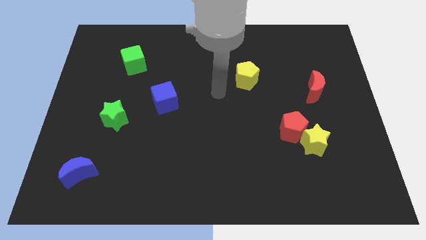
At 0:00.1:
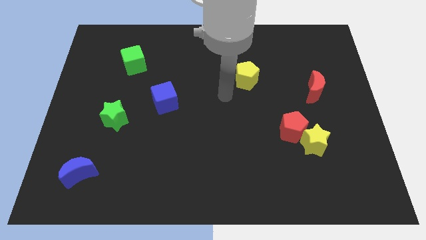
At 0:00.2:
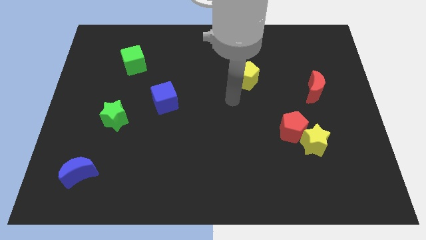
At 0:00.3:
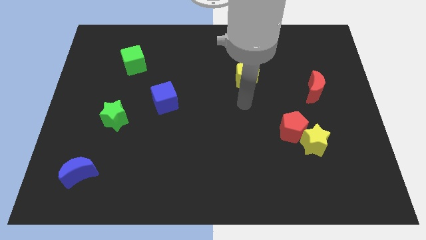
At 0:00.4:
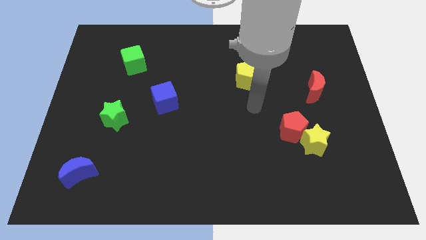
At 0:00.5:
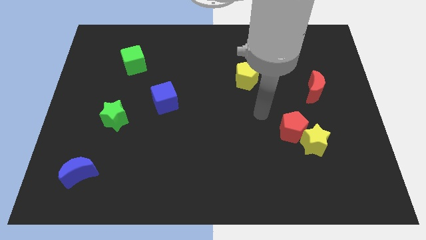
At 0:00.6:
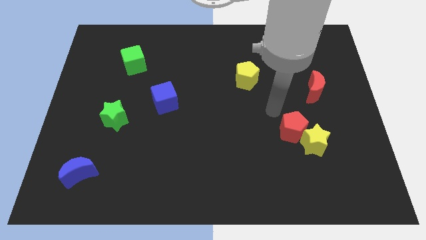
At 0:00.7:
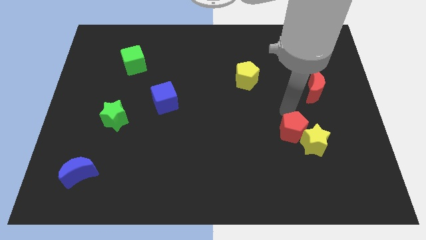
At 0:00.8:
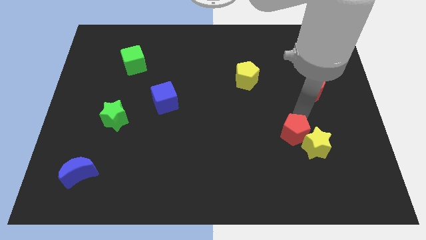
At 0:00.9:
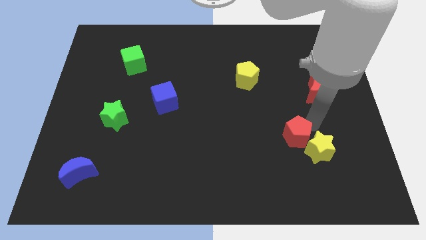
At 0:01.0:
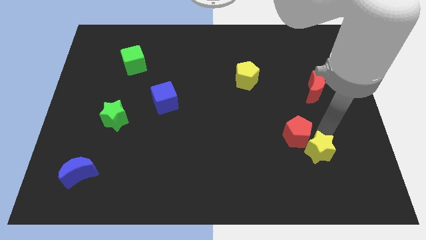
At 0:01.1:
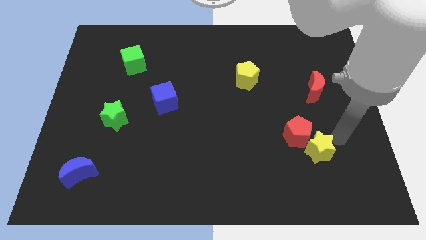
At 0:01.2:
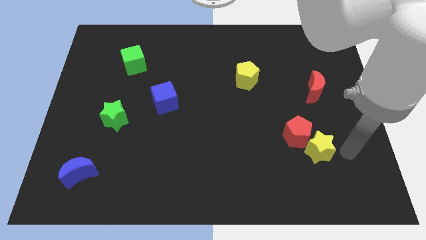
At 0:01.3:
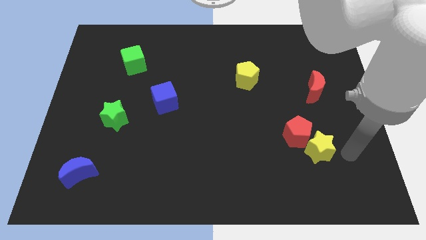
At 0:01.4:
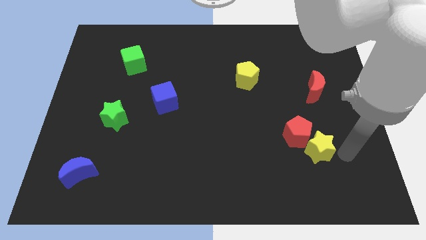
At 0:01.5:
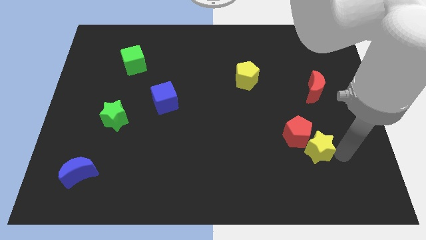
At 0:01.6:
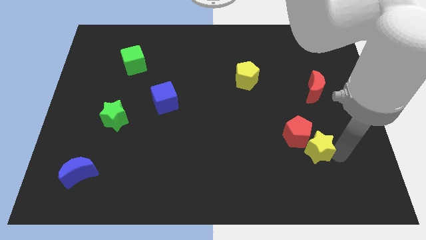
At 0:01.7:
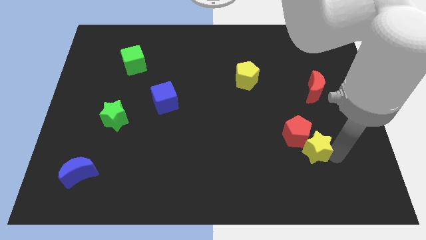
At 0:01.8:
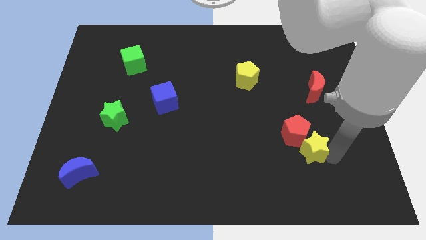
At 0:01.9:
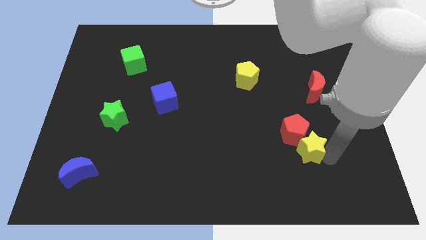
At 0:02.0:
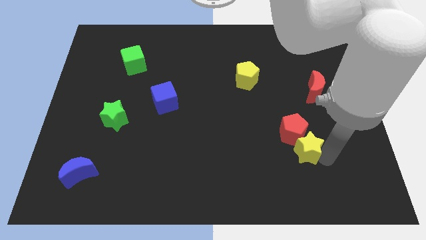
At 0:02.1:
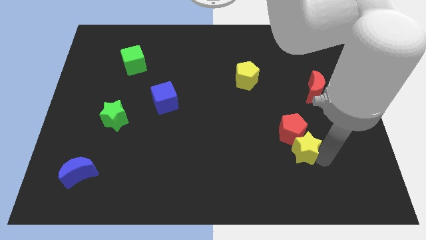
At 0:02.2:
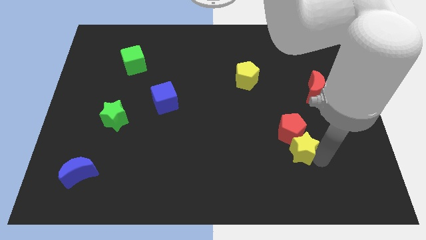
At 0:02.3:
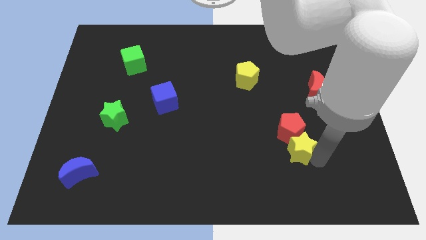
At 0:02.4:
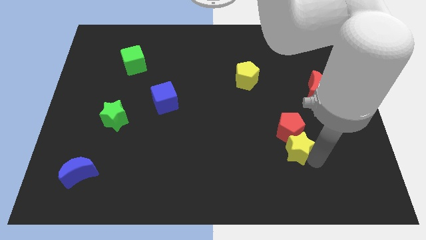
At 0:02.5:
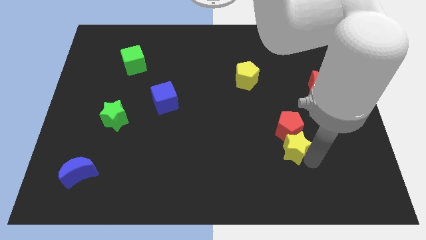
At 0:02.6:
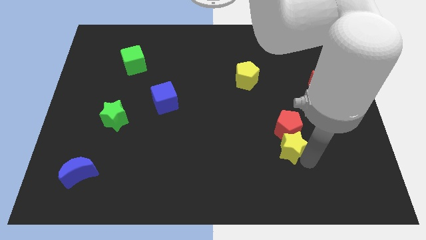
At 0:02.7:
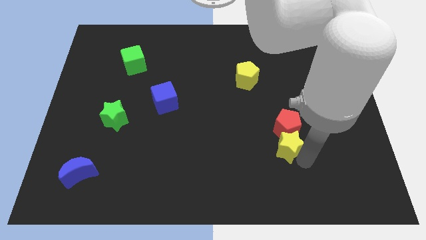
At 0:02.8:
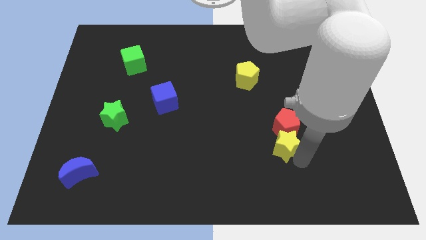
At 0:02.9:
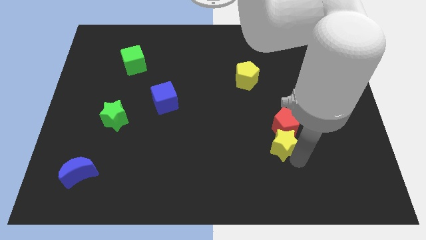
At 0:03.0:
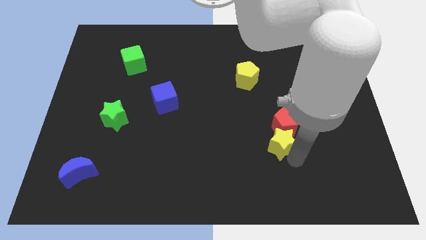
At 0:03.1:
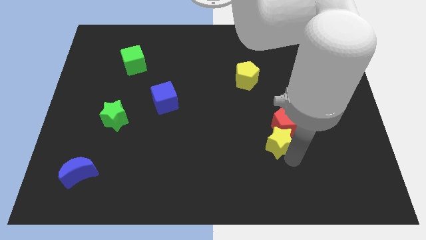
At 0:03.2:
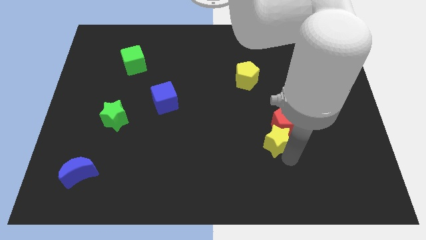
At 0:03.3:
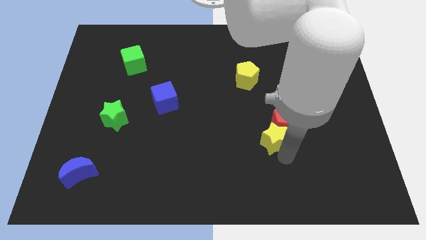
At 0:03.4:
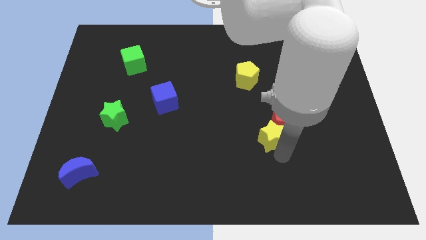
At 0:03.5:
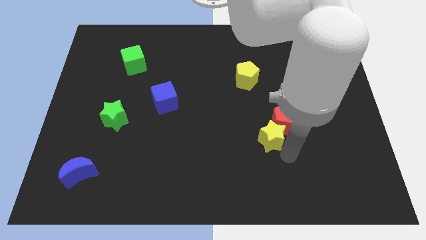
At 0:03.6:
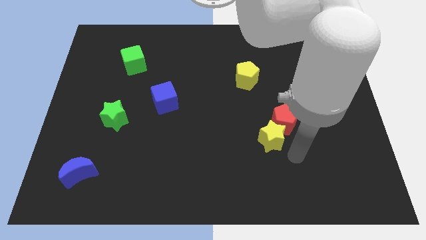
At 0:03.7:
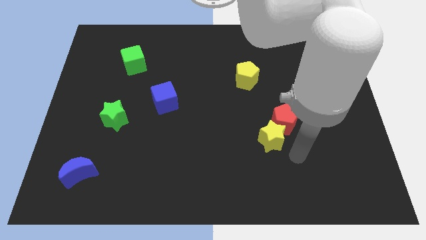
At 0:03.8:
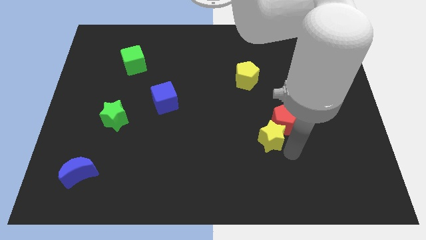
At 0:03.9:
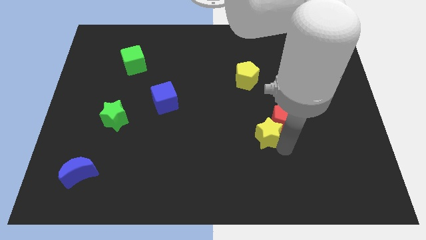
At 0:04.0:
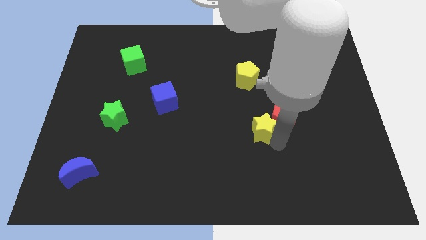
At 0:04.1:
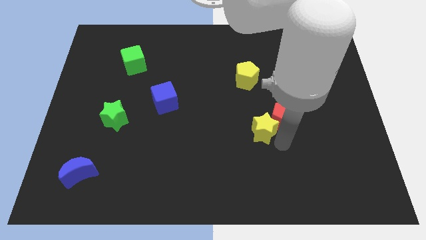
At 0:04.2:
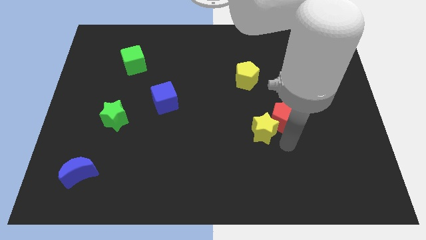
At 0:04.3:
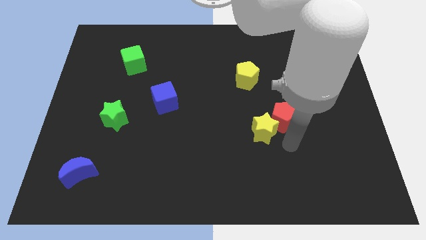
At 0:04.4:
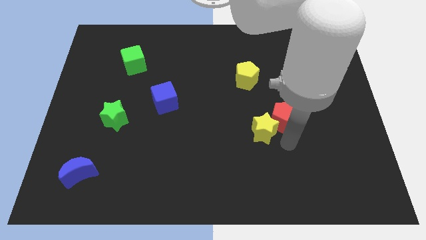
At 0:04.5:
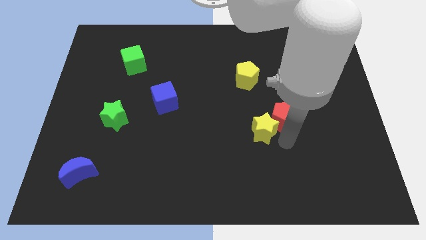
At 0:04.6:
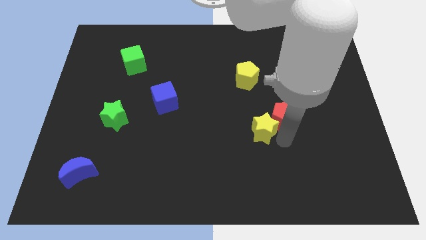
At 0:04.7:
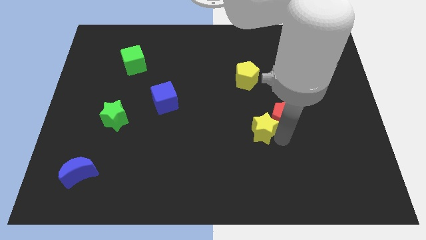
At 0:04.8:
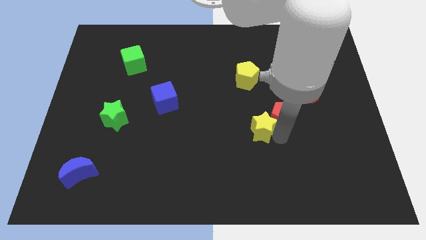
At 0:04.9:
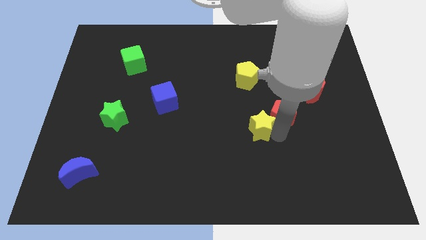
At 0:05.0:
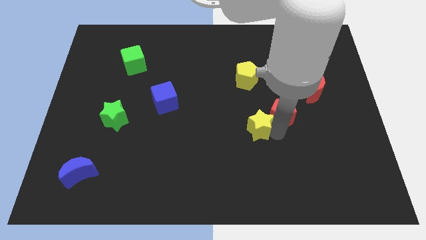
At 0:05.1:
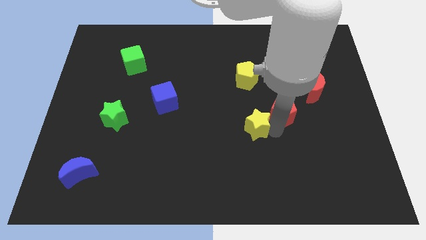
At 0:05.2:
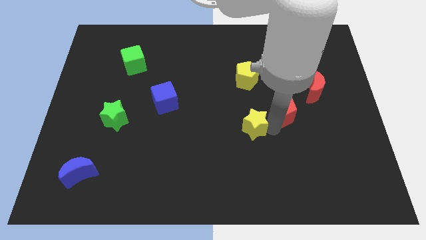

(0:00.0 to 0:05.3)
move the yellow star to the middle

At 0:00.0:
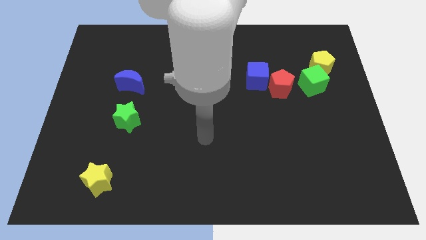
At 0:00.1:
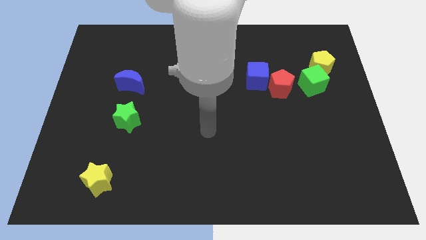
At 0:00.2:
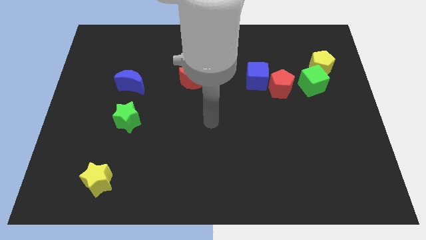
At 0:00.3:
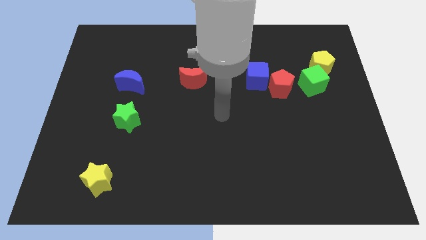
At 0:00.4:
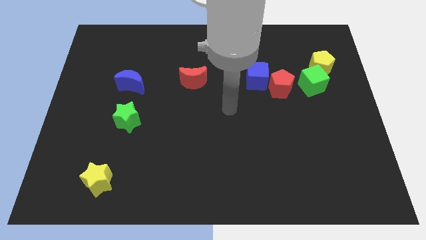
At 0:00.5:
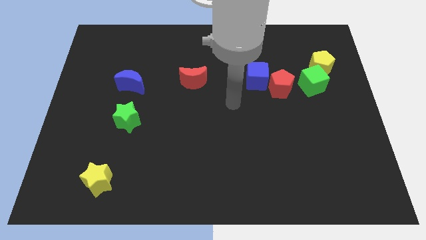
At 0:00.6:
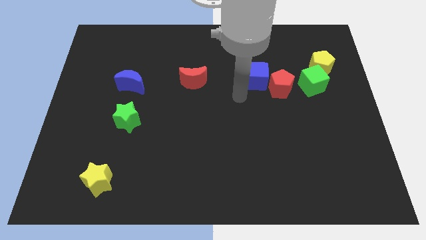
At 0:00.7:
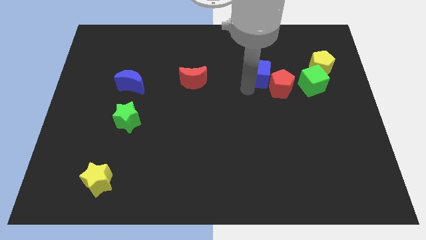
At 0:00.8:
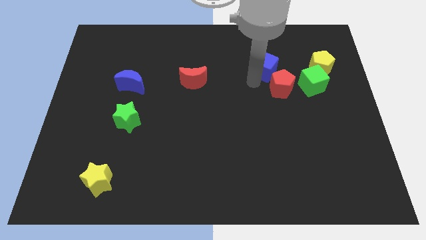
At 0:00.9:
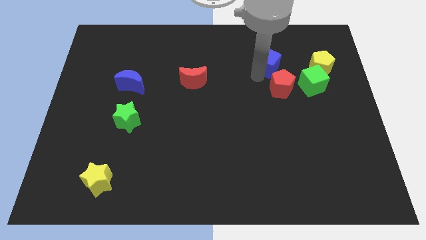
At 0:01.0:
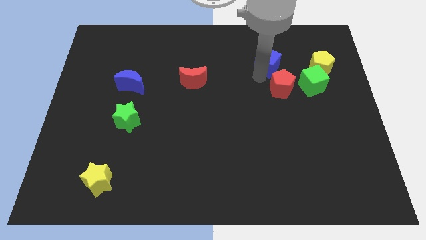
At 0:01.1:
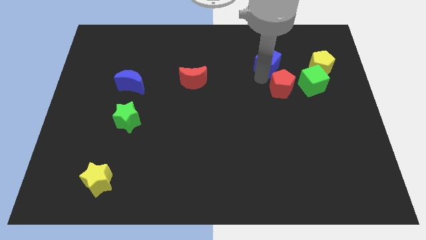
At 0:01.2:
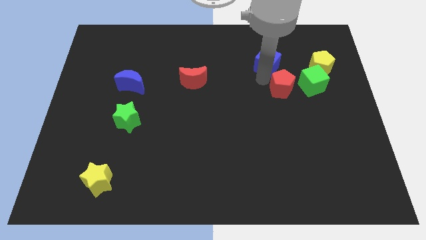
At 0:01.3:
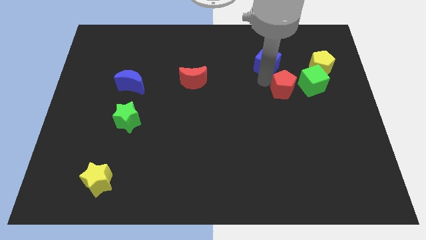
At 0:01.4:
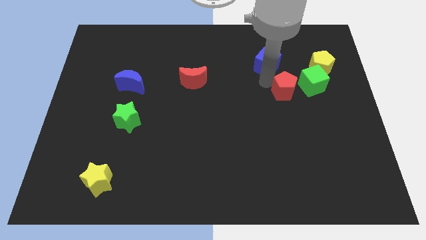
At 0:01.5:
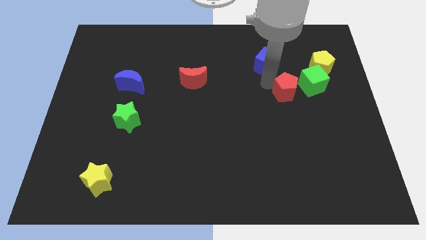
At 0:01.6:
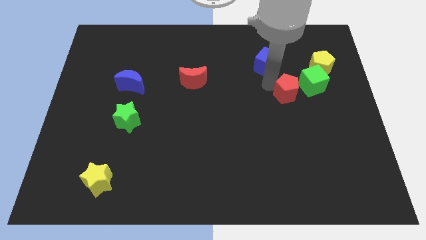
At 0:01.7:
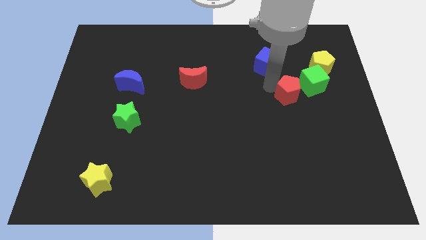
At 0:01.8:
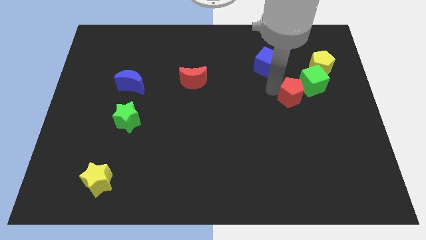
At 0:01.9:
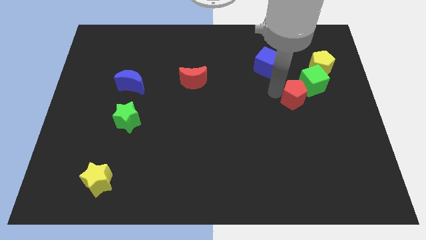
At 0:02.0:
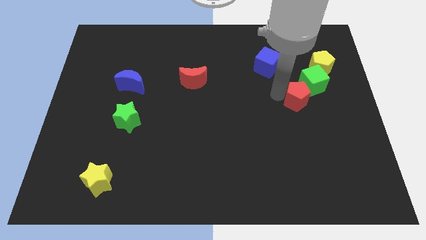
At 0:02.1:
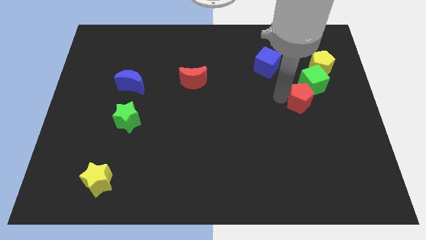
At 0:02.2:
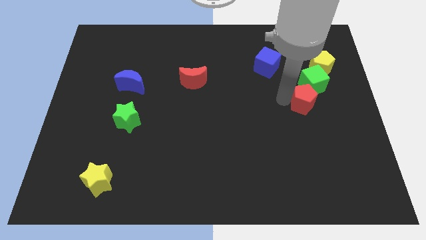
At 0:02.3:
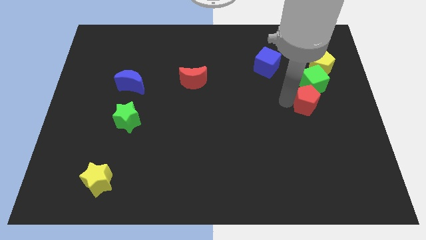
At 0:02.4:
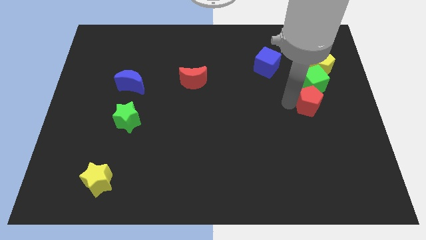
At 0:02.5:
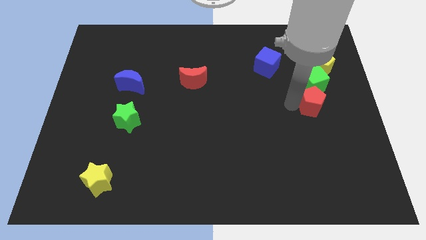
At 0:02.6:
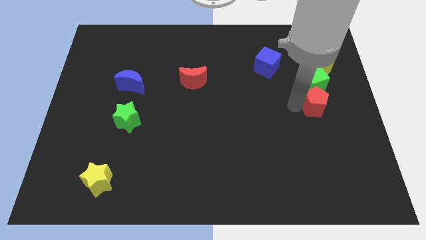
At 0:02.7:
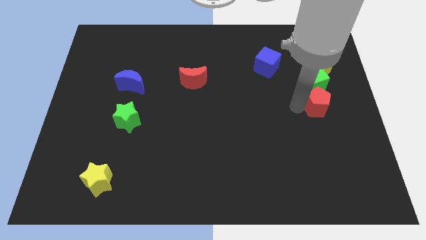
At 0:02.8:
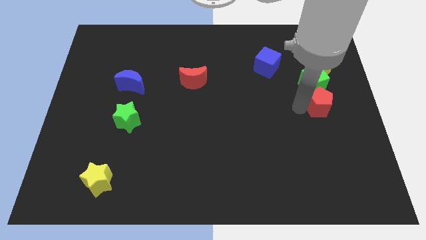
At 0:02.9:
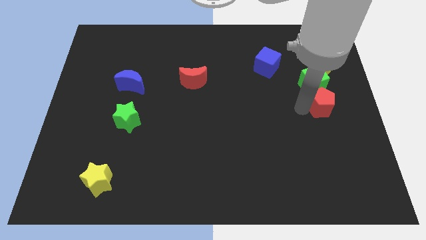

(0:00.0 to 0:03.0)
push the red pentagon to the right side
